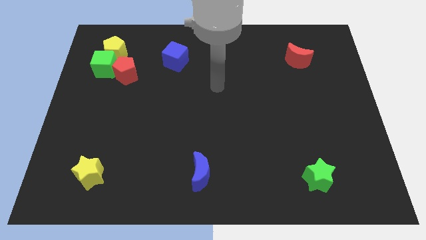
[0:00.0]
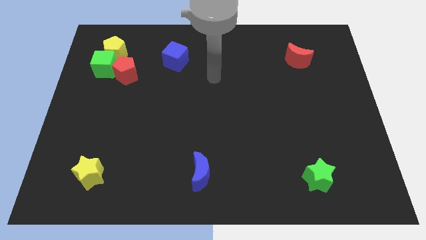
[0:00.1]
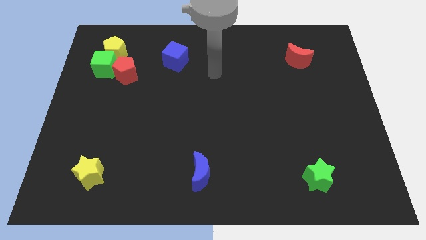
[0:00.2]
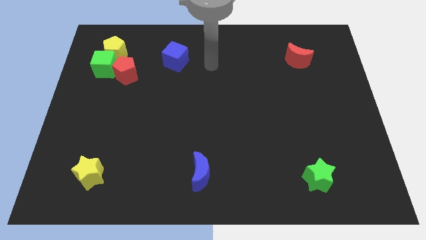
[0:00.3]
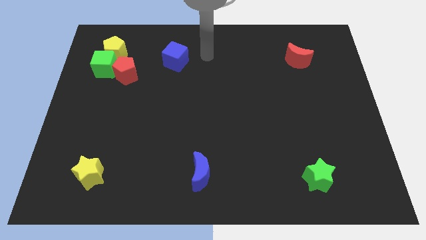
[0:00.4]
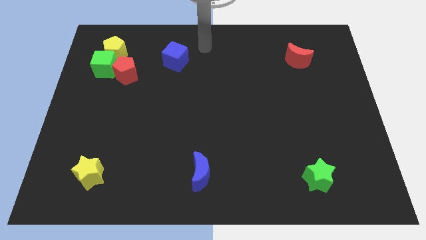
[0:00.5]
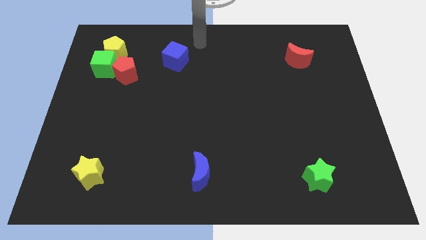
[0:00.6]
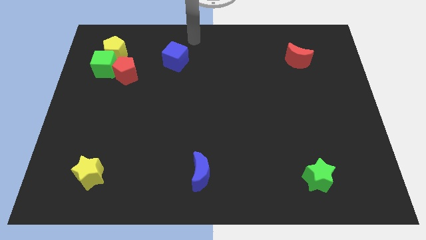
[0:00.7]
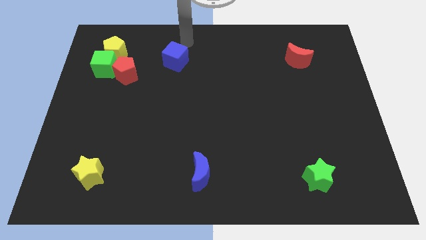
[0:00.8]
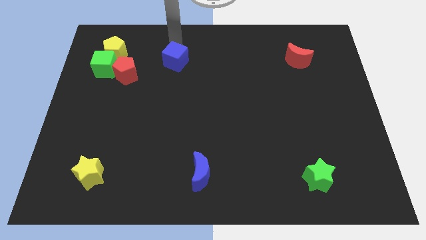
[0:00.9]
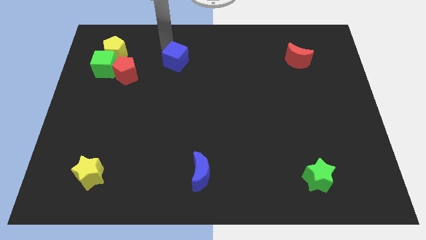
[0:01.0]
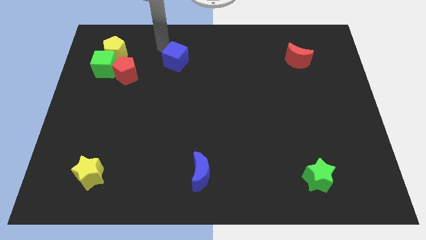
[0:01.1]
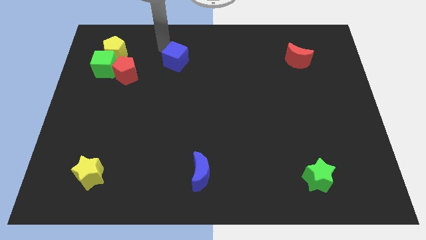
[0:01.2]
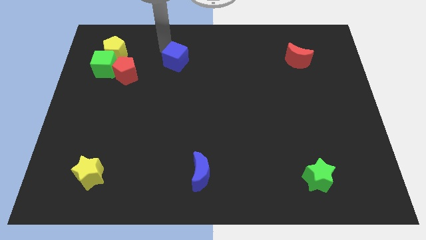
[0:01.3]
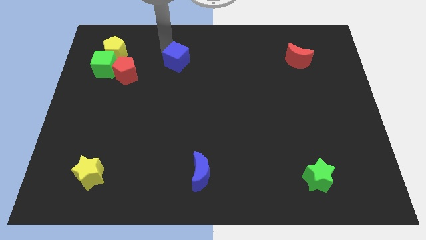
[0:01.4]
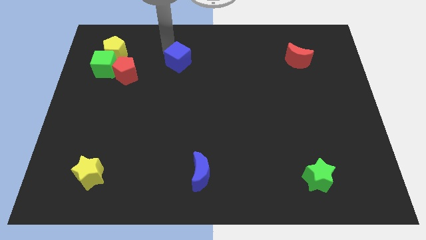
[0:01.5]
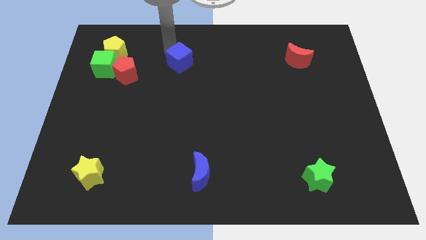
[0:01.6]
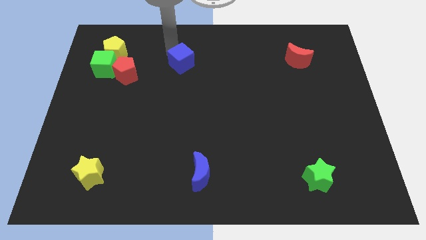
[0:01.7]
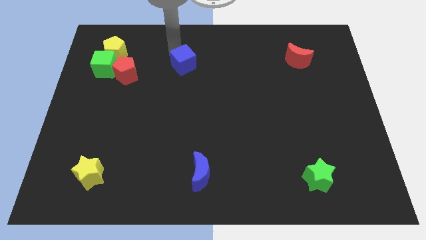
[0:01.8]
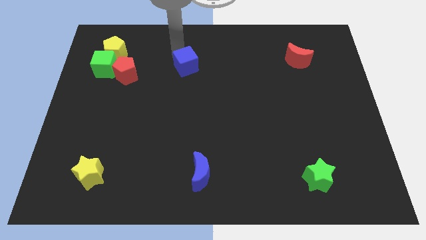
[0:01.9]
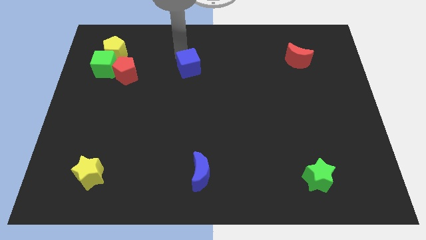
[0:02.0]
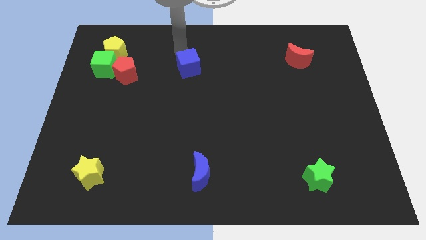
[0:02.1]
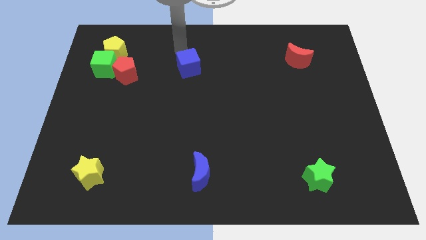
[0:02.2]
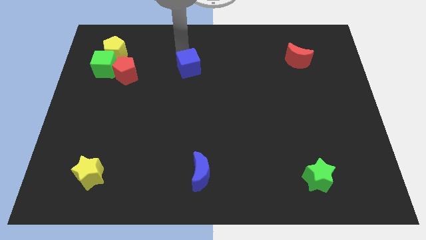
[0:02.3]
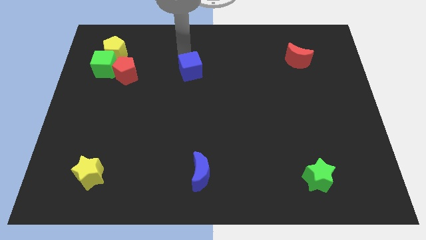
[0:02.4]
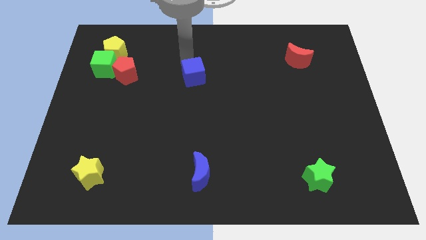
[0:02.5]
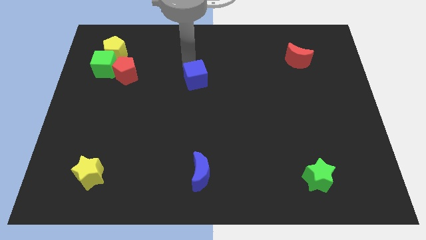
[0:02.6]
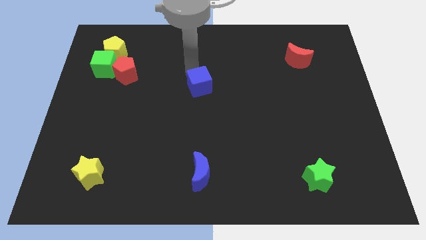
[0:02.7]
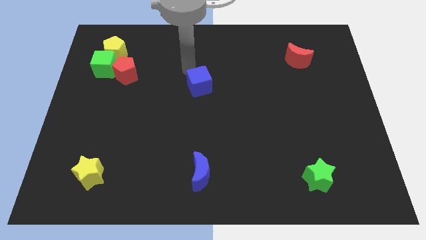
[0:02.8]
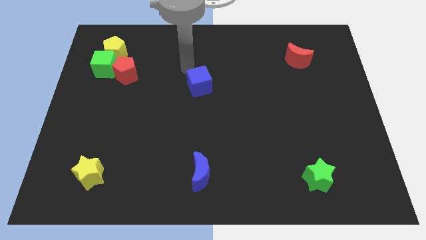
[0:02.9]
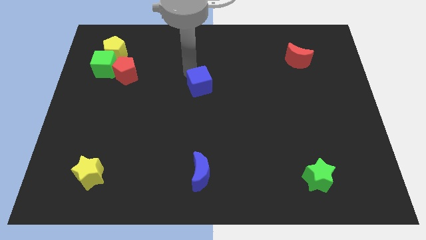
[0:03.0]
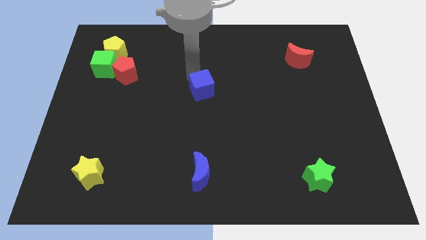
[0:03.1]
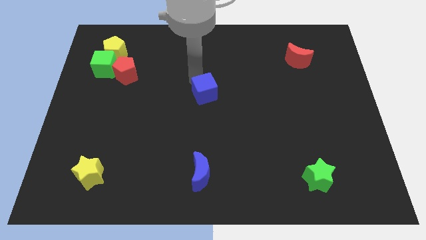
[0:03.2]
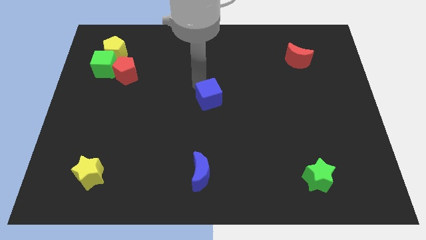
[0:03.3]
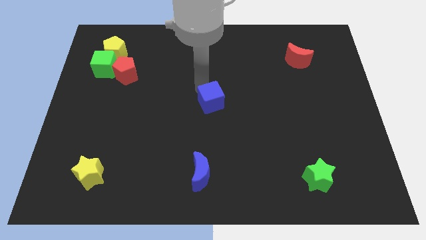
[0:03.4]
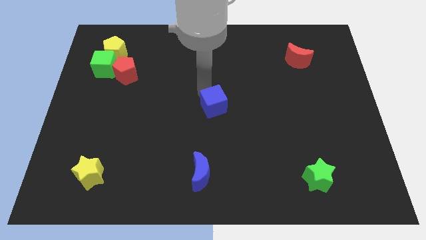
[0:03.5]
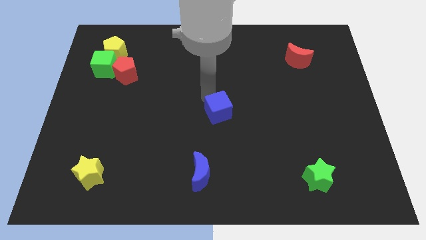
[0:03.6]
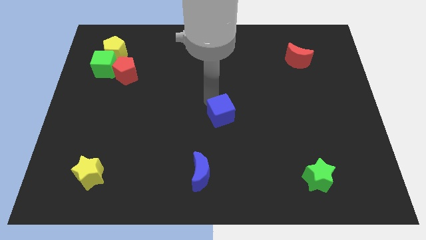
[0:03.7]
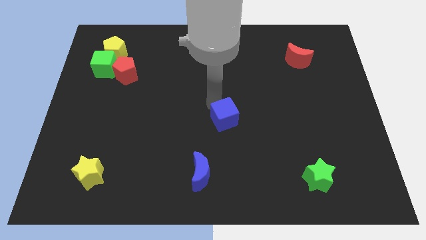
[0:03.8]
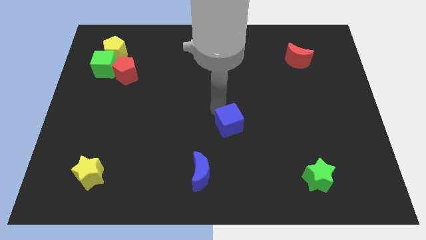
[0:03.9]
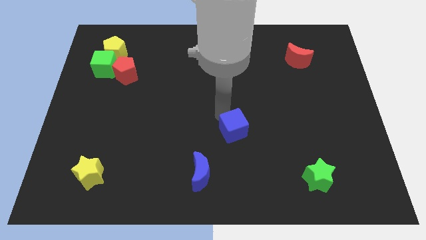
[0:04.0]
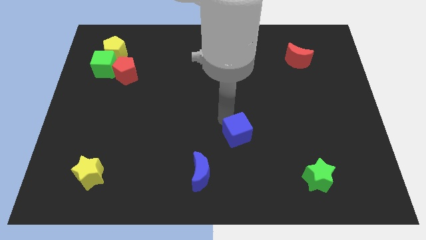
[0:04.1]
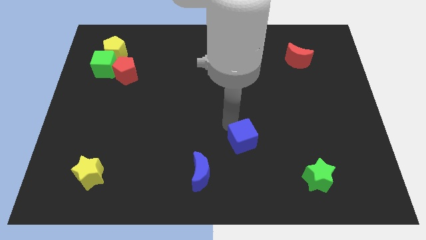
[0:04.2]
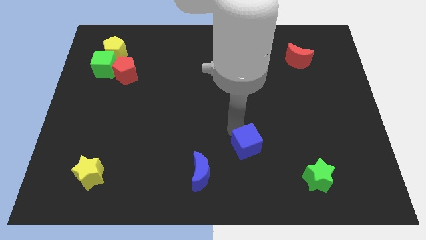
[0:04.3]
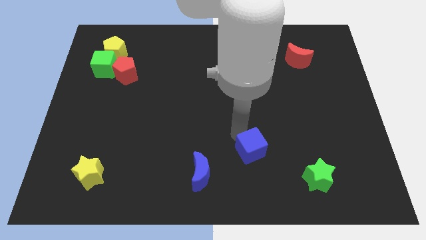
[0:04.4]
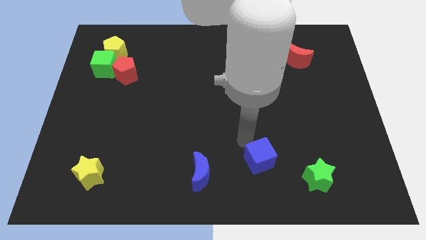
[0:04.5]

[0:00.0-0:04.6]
put the blue cube just left of the green star

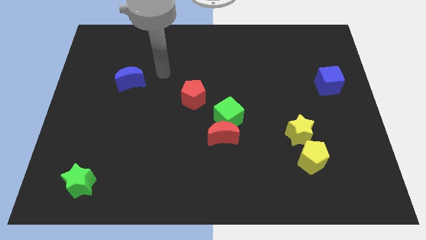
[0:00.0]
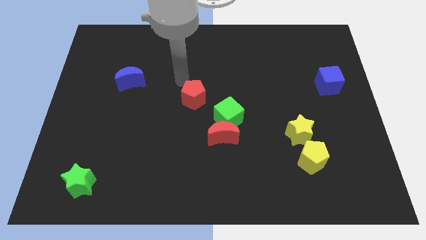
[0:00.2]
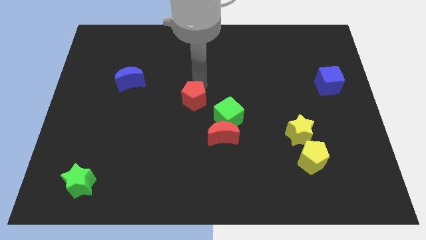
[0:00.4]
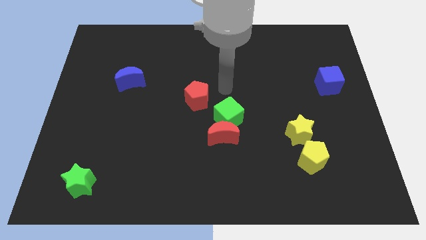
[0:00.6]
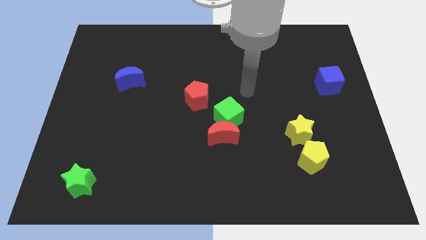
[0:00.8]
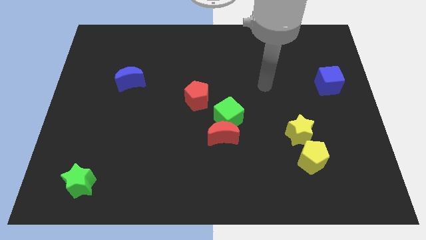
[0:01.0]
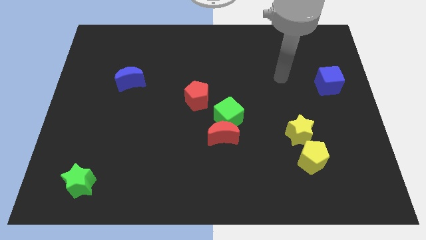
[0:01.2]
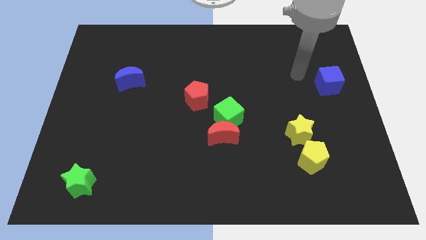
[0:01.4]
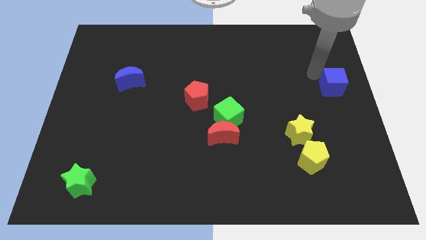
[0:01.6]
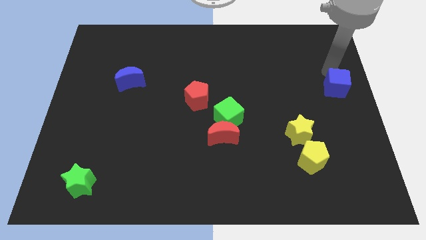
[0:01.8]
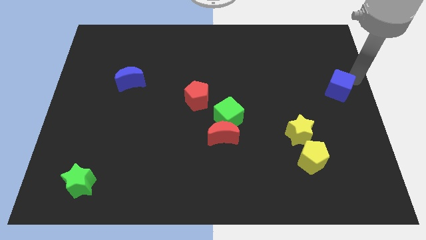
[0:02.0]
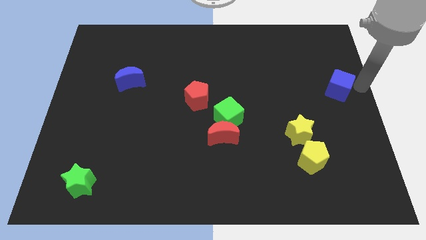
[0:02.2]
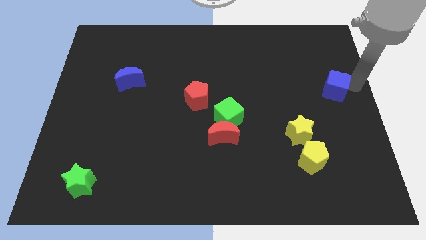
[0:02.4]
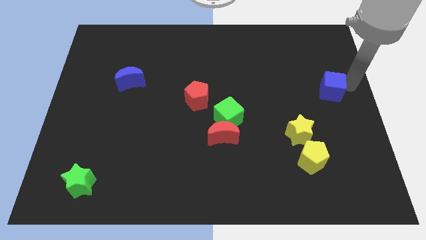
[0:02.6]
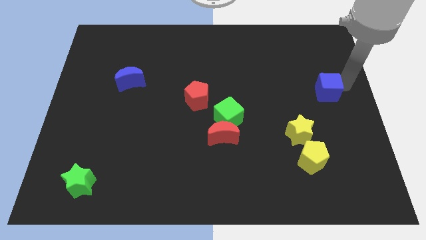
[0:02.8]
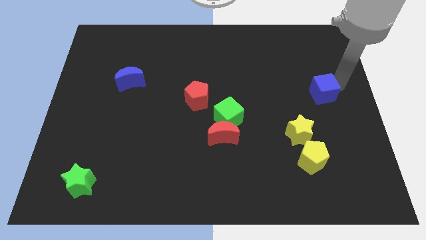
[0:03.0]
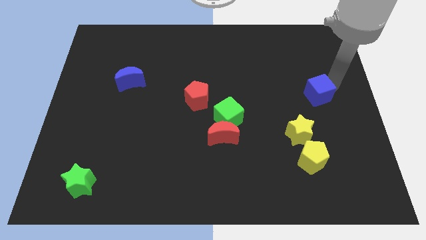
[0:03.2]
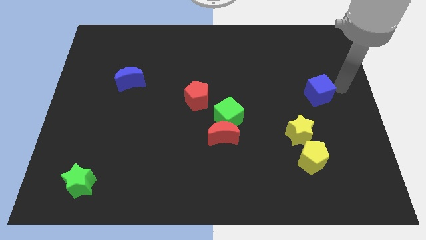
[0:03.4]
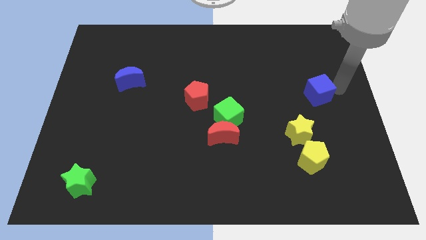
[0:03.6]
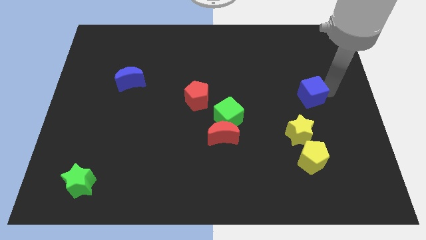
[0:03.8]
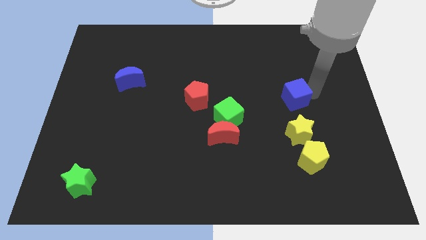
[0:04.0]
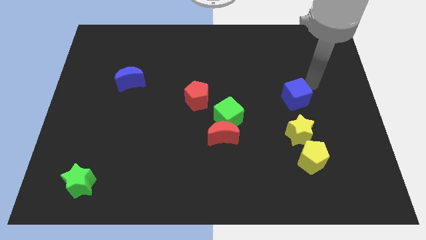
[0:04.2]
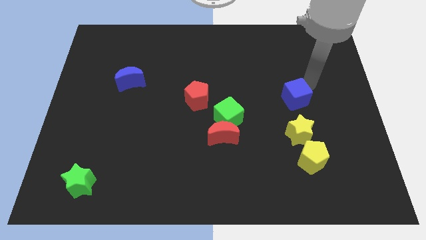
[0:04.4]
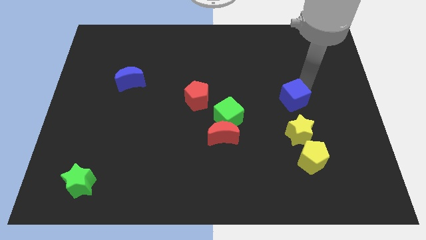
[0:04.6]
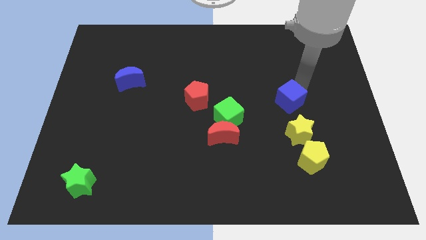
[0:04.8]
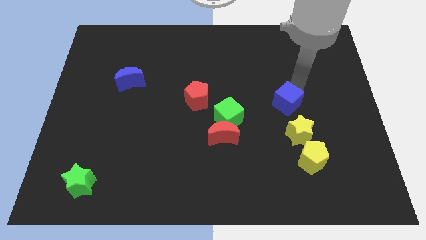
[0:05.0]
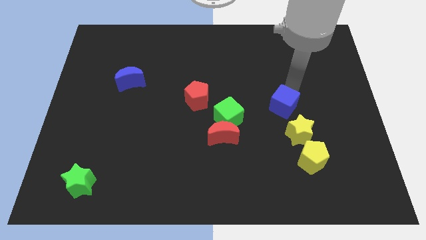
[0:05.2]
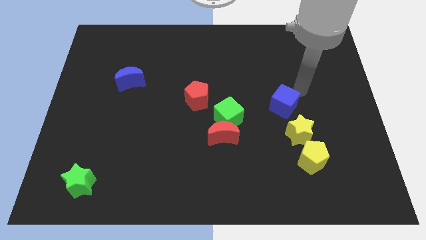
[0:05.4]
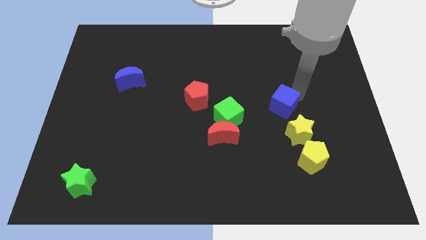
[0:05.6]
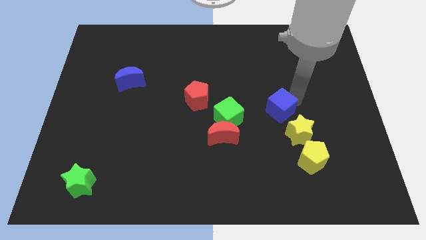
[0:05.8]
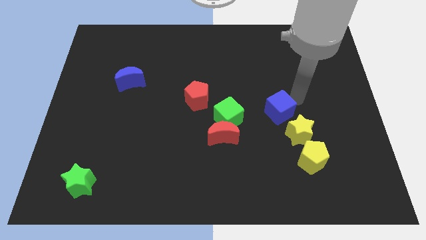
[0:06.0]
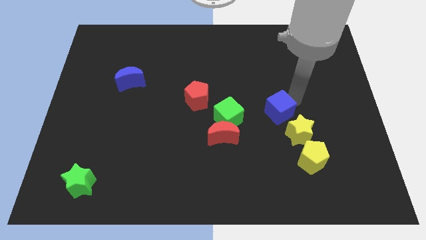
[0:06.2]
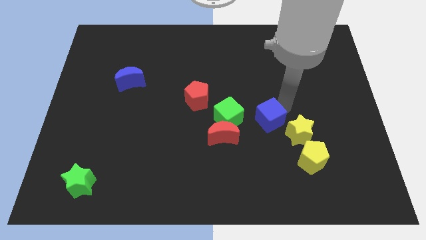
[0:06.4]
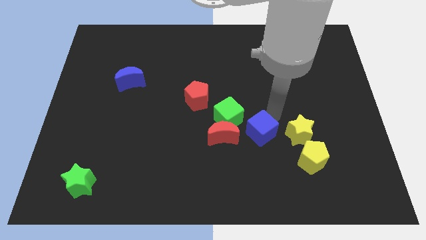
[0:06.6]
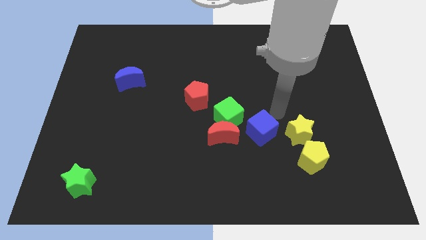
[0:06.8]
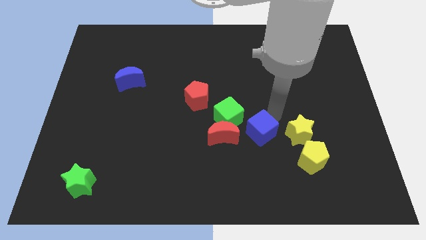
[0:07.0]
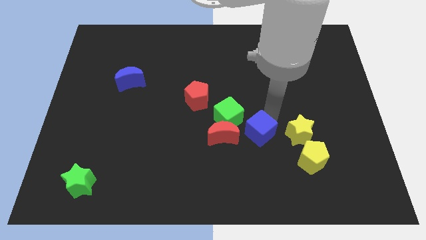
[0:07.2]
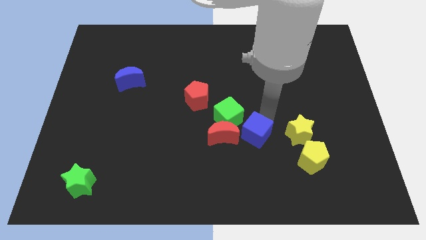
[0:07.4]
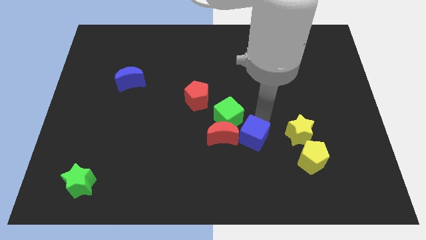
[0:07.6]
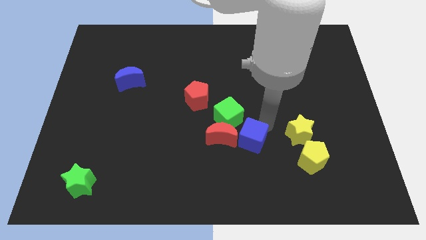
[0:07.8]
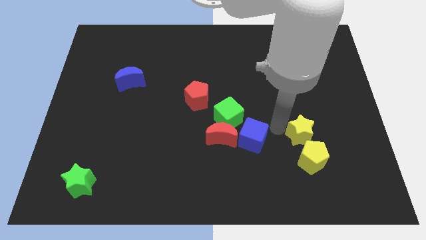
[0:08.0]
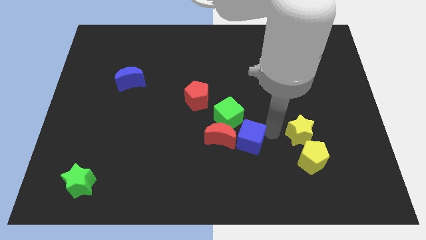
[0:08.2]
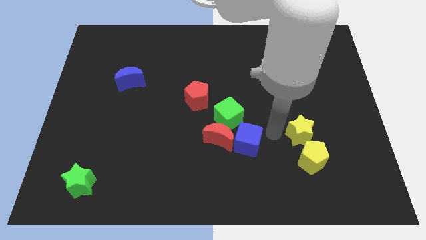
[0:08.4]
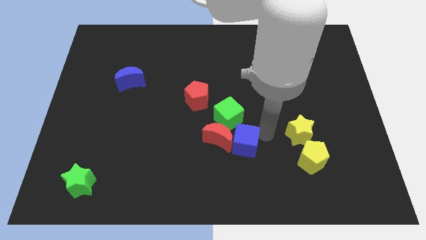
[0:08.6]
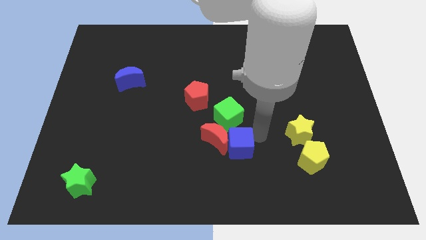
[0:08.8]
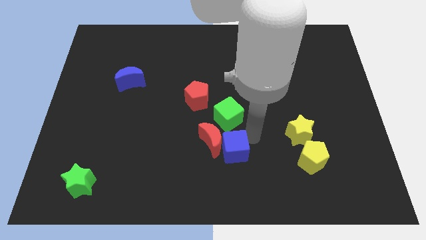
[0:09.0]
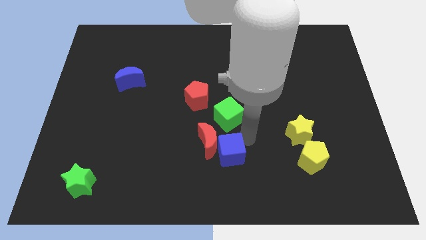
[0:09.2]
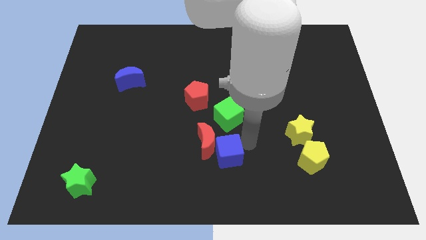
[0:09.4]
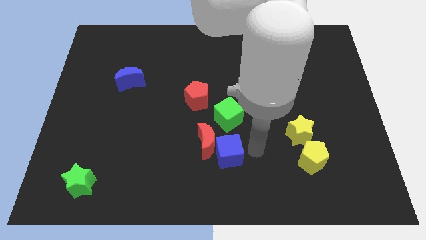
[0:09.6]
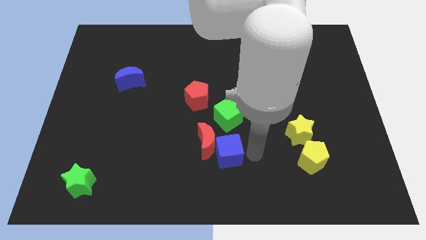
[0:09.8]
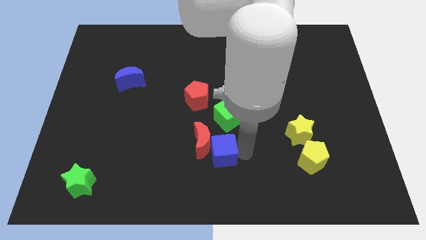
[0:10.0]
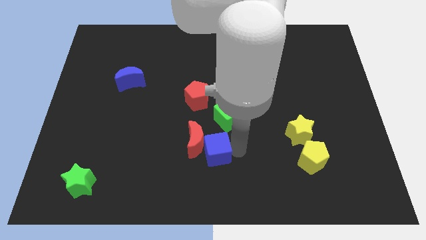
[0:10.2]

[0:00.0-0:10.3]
slide the blue cube to the bottom left side of the green cube
